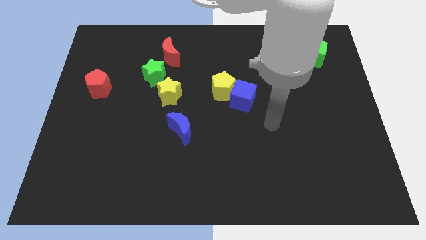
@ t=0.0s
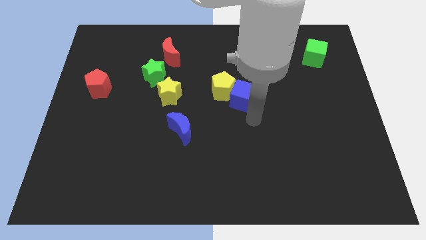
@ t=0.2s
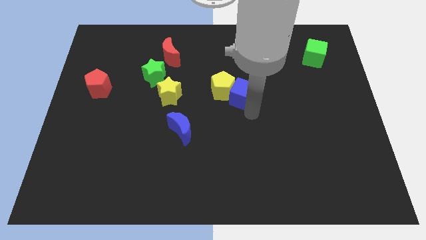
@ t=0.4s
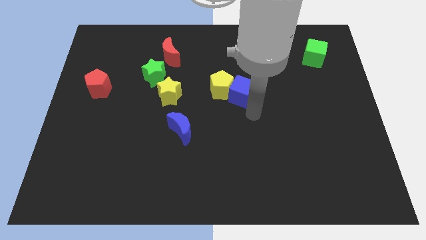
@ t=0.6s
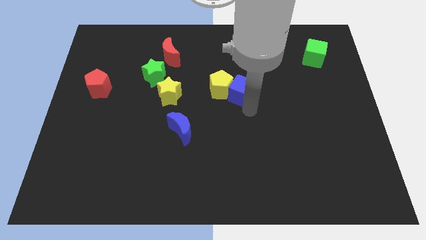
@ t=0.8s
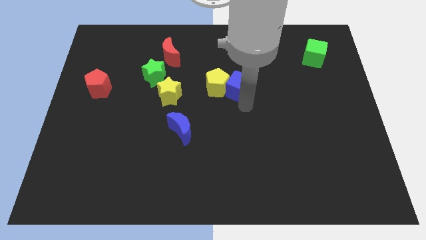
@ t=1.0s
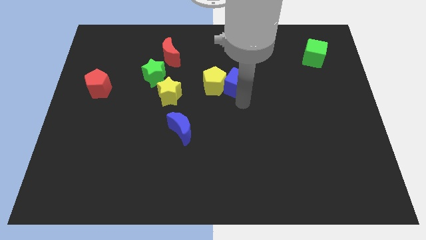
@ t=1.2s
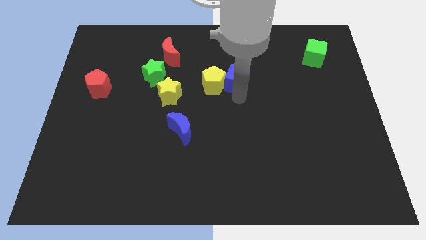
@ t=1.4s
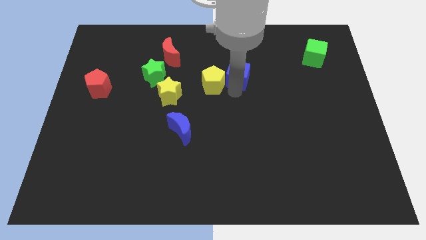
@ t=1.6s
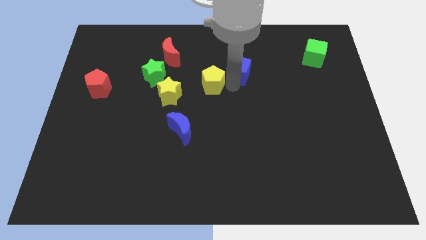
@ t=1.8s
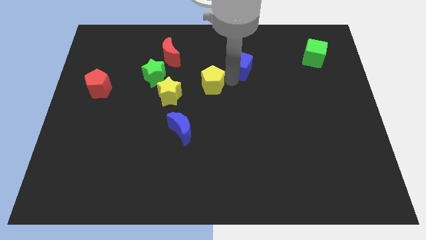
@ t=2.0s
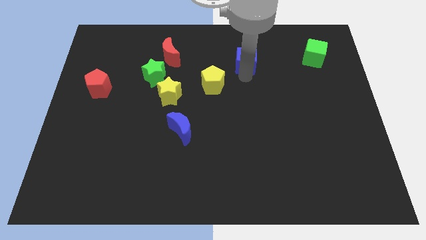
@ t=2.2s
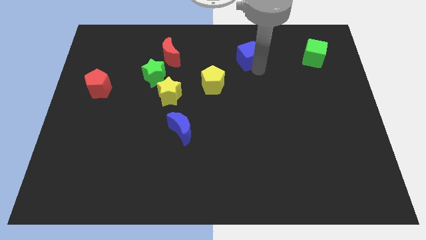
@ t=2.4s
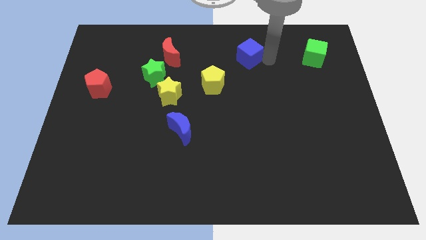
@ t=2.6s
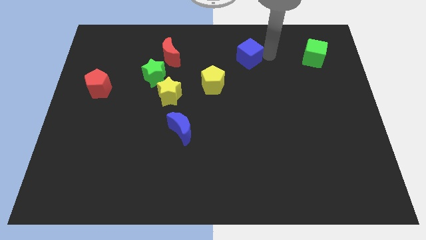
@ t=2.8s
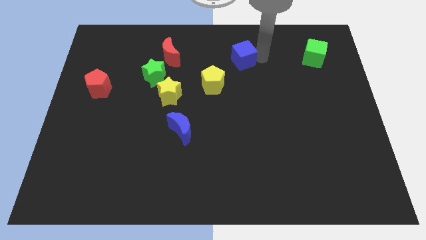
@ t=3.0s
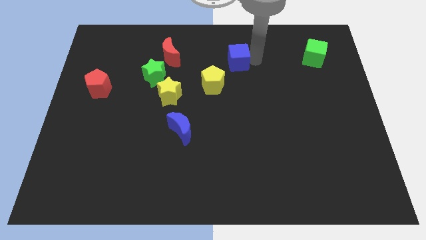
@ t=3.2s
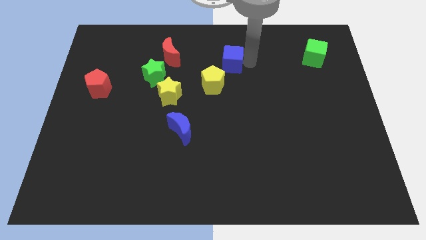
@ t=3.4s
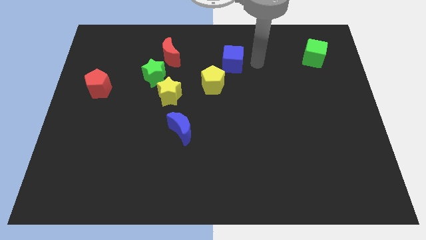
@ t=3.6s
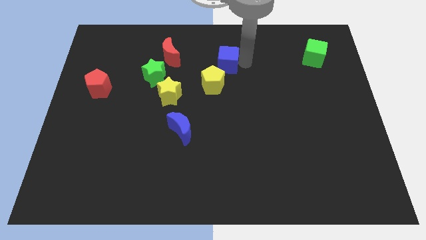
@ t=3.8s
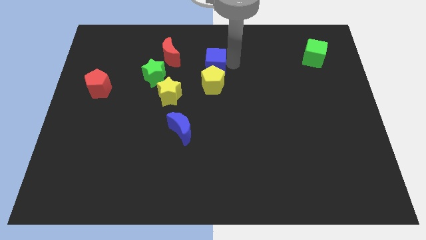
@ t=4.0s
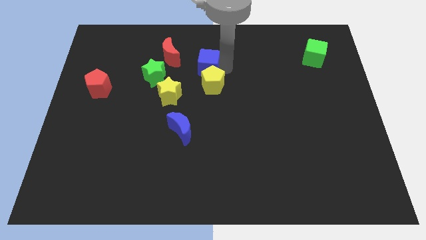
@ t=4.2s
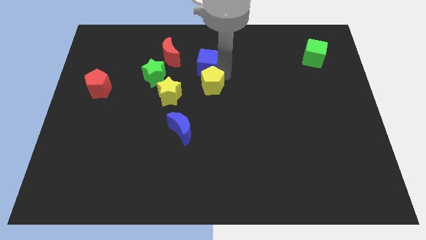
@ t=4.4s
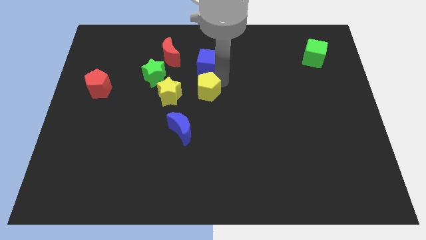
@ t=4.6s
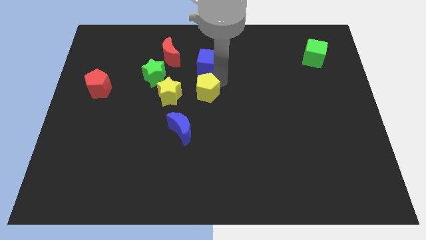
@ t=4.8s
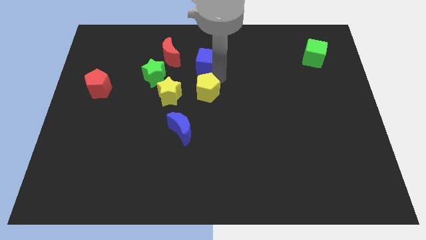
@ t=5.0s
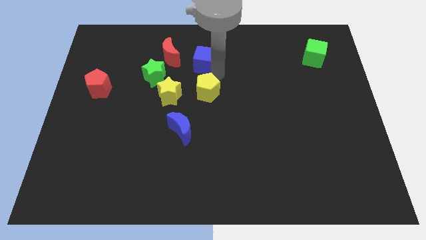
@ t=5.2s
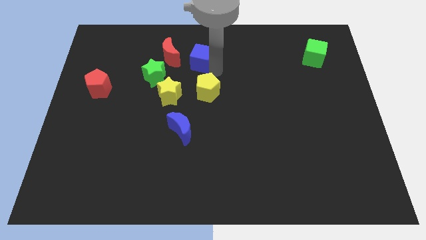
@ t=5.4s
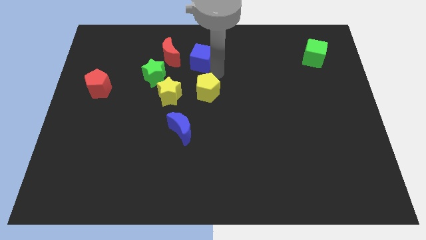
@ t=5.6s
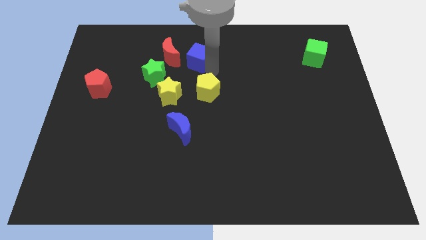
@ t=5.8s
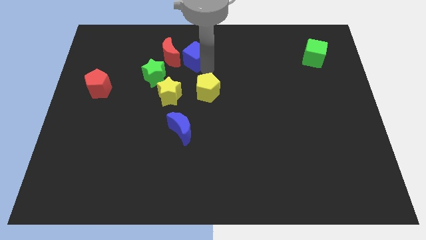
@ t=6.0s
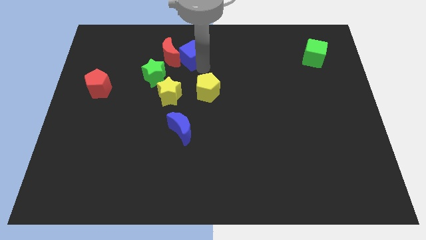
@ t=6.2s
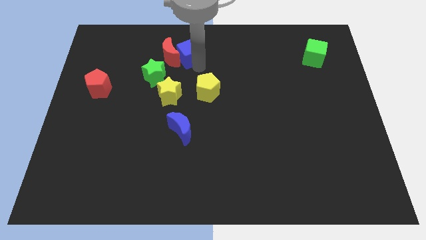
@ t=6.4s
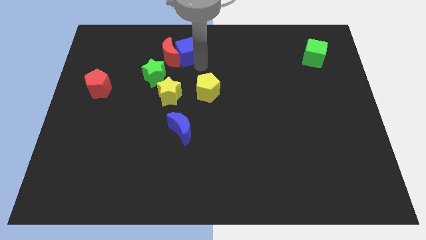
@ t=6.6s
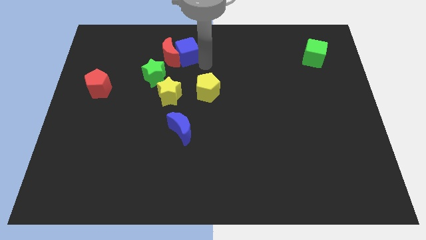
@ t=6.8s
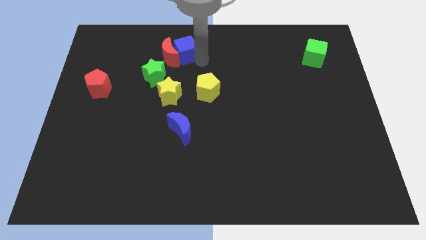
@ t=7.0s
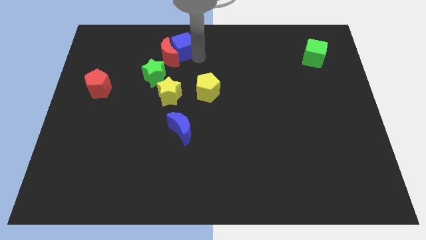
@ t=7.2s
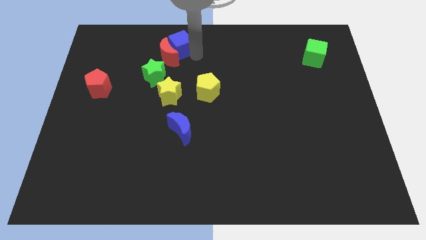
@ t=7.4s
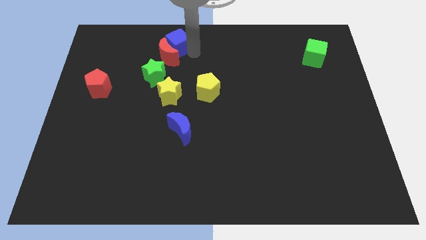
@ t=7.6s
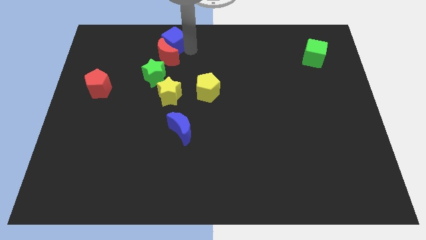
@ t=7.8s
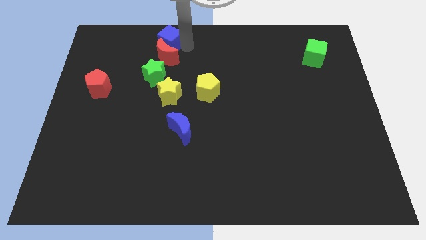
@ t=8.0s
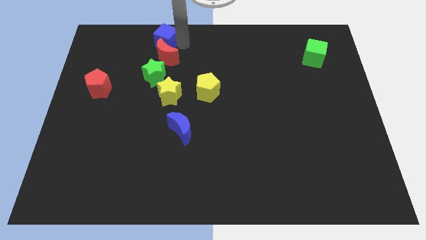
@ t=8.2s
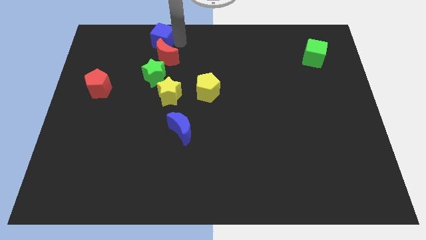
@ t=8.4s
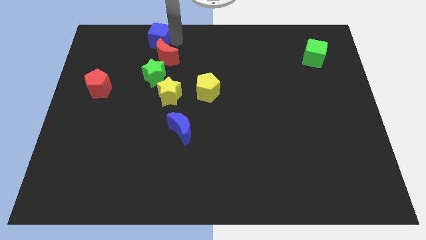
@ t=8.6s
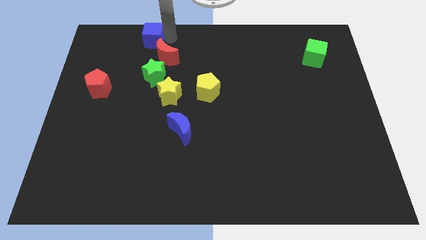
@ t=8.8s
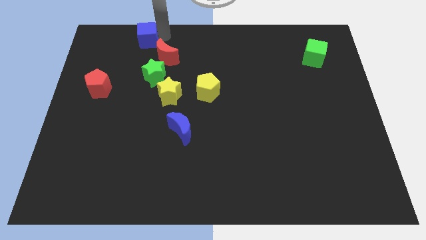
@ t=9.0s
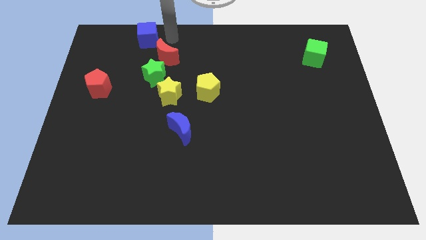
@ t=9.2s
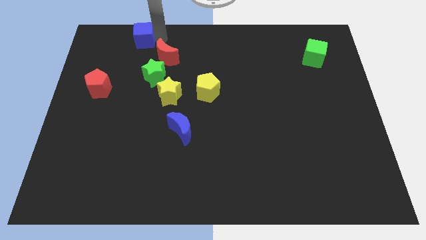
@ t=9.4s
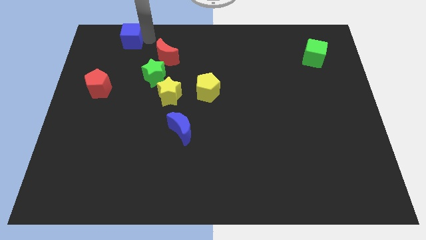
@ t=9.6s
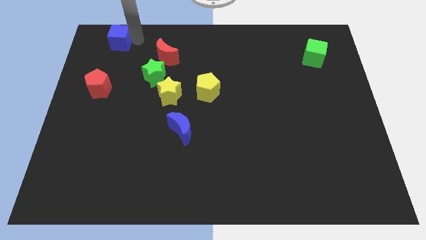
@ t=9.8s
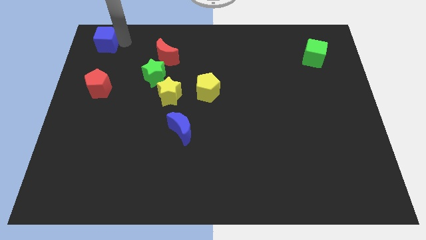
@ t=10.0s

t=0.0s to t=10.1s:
put the blue cube to the top left corner

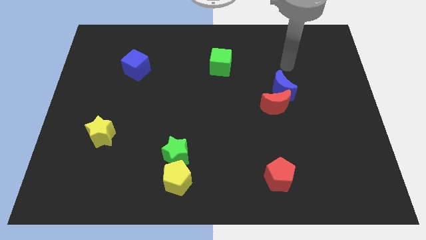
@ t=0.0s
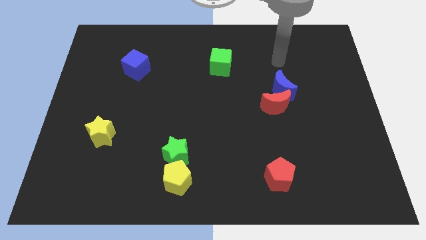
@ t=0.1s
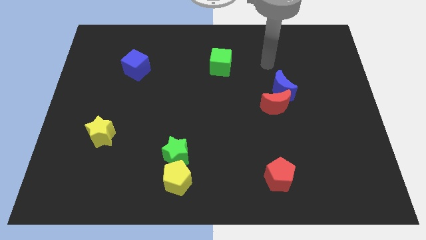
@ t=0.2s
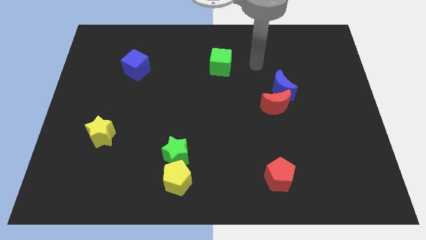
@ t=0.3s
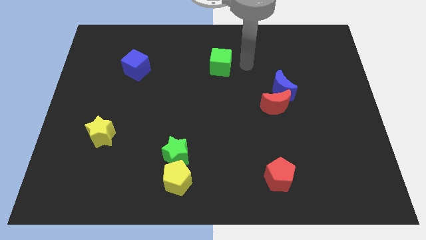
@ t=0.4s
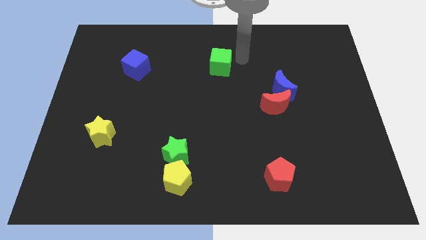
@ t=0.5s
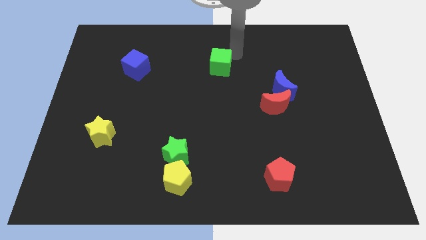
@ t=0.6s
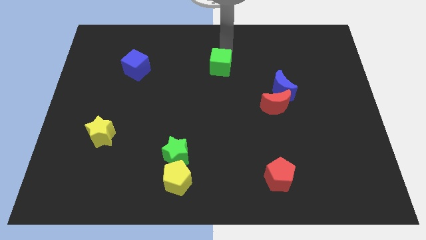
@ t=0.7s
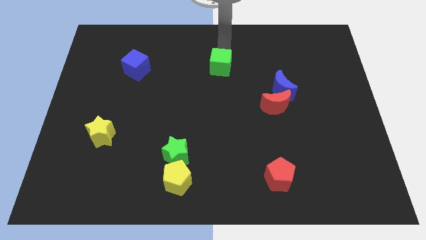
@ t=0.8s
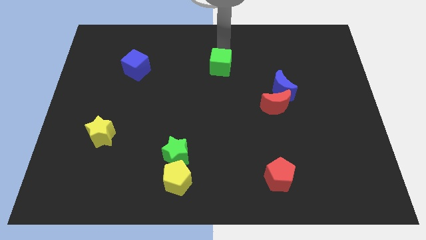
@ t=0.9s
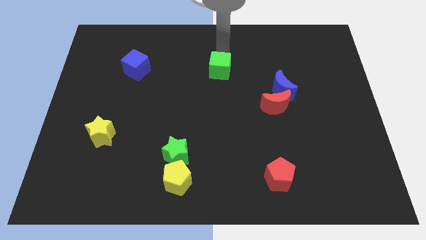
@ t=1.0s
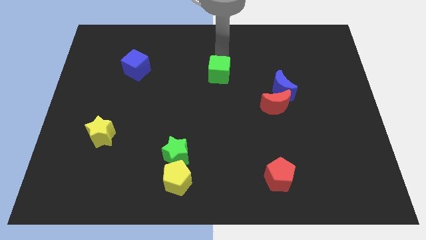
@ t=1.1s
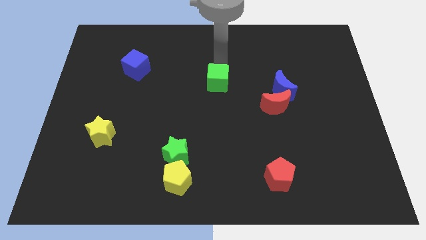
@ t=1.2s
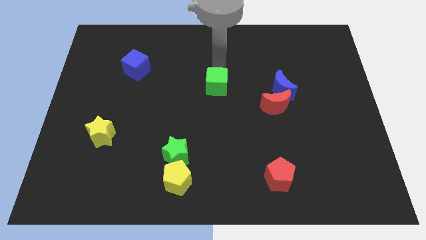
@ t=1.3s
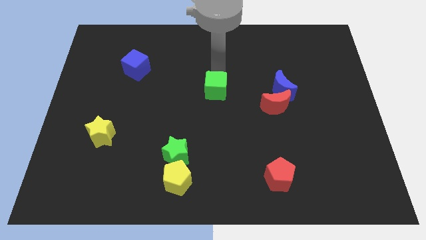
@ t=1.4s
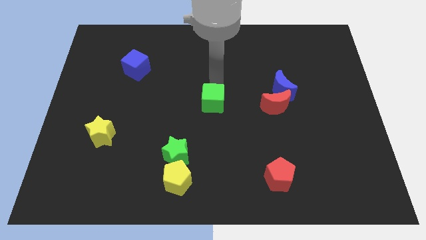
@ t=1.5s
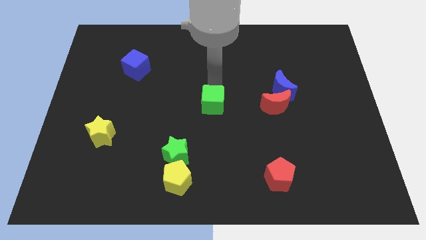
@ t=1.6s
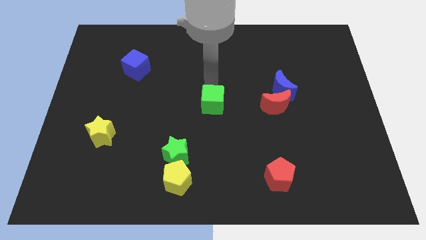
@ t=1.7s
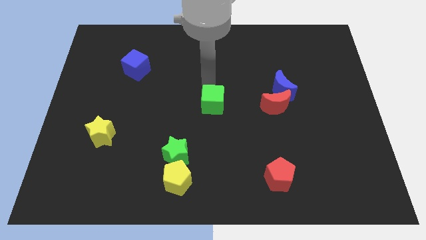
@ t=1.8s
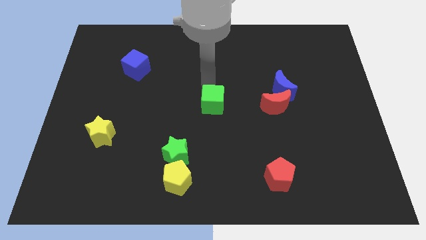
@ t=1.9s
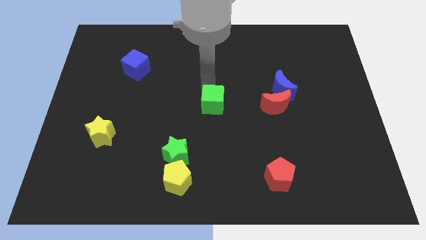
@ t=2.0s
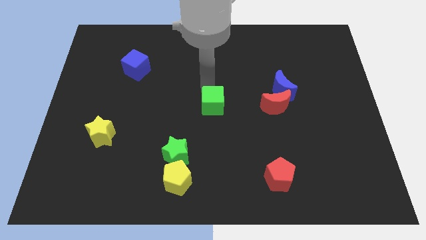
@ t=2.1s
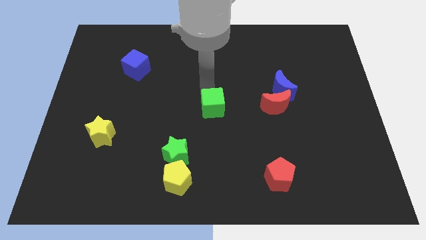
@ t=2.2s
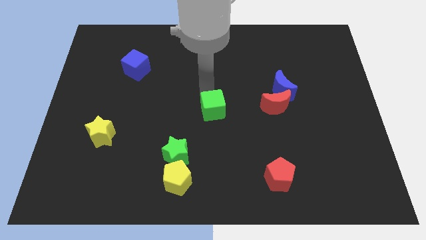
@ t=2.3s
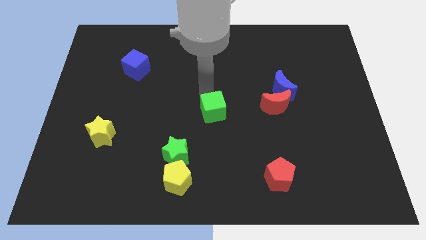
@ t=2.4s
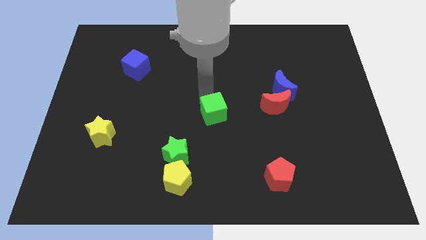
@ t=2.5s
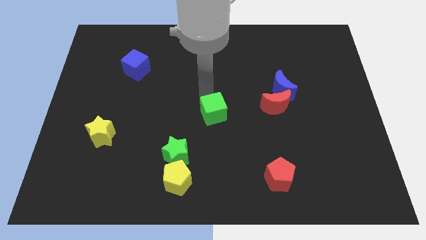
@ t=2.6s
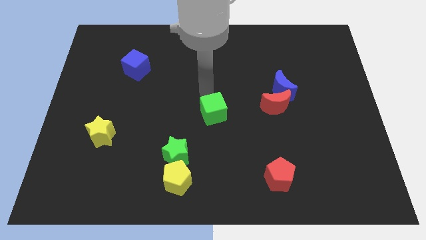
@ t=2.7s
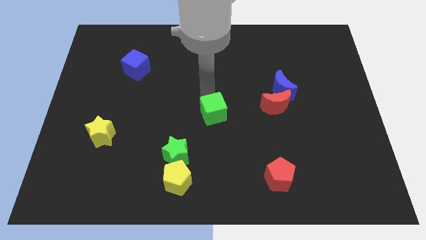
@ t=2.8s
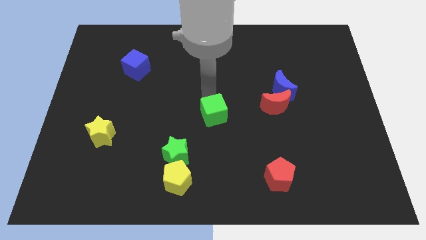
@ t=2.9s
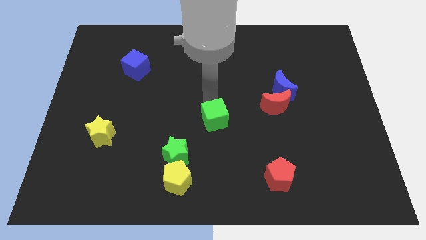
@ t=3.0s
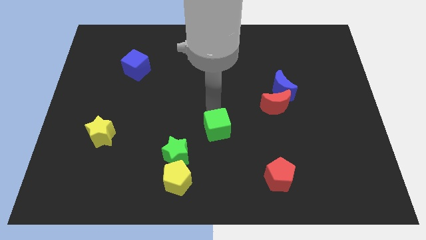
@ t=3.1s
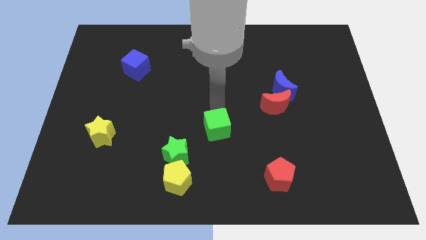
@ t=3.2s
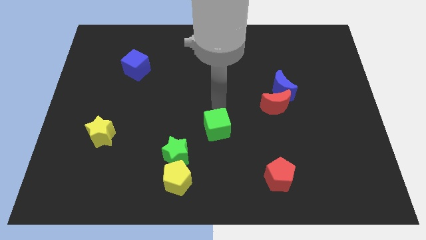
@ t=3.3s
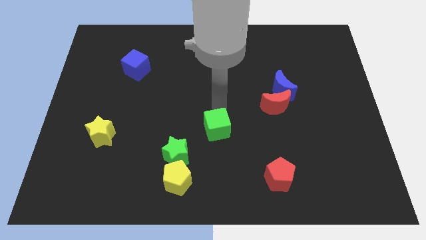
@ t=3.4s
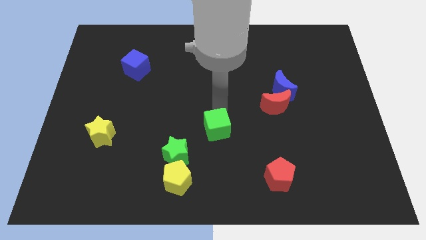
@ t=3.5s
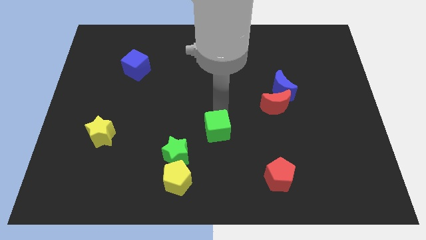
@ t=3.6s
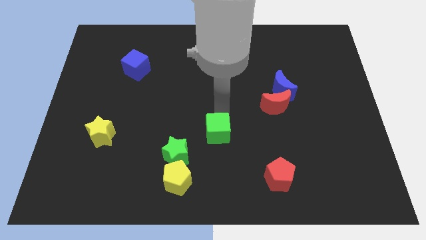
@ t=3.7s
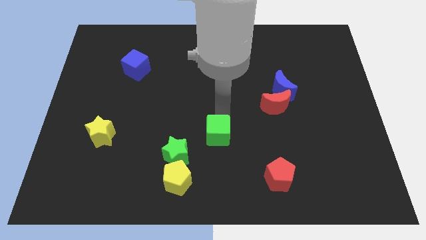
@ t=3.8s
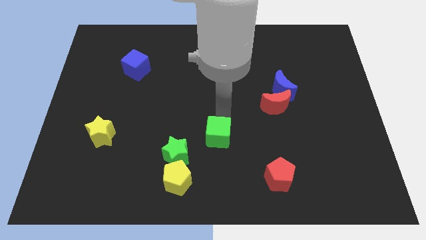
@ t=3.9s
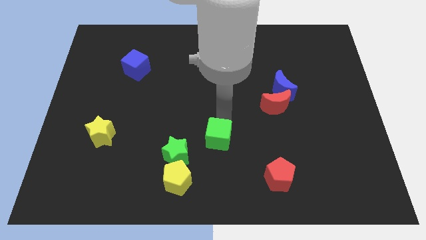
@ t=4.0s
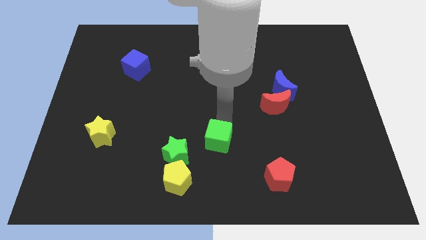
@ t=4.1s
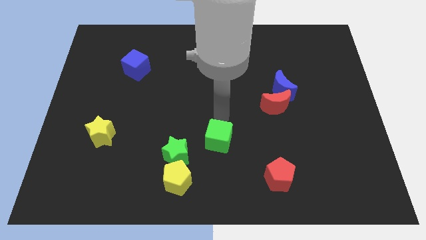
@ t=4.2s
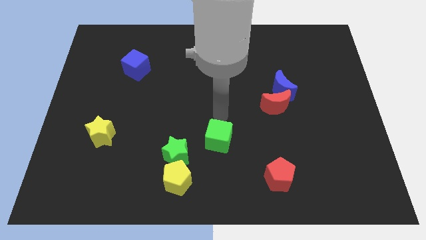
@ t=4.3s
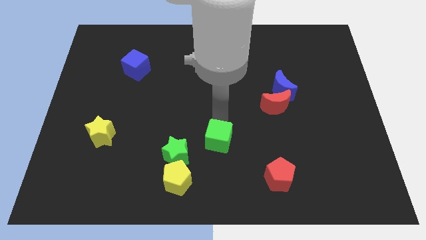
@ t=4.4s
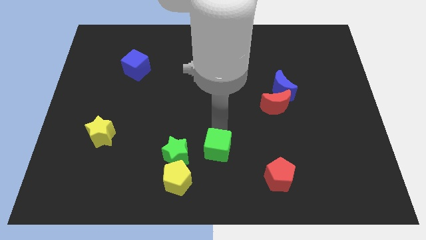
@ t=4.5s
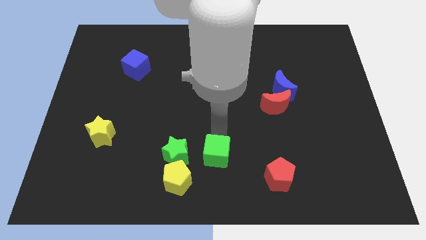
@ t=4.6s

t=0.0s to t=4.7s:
move the green cube to the bottom side
